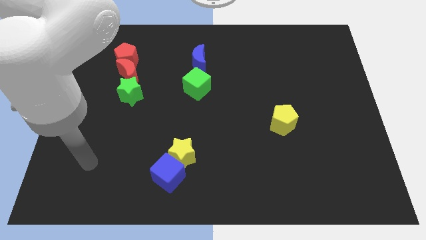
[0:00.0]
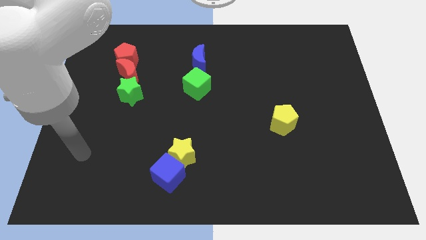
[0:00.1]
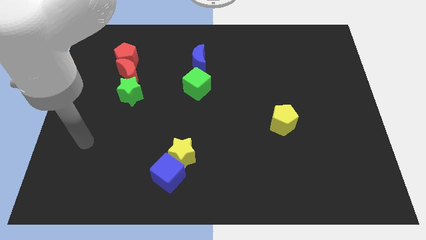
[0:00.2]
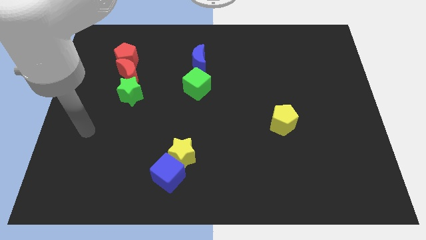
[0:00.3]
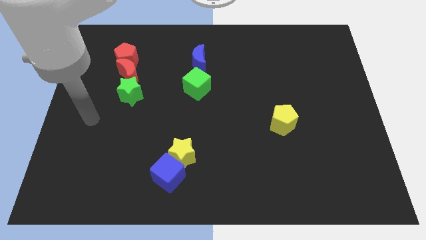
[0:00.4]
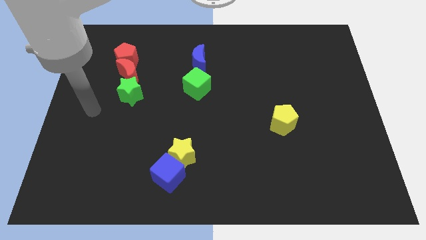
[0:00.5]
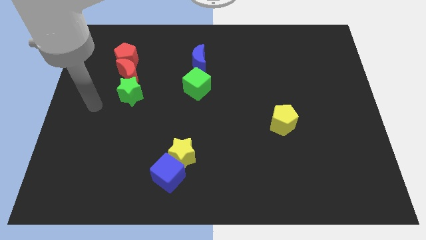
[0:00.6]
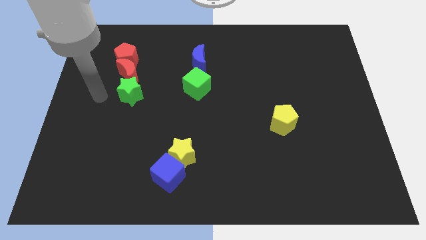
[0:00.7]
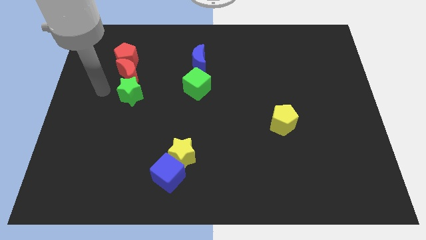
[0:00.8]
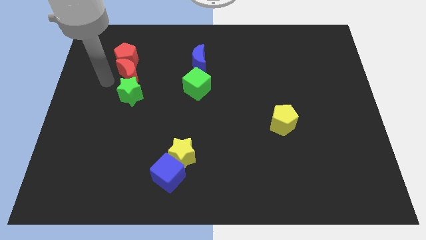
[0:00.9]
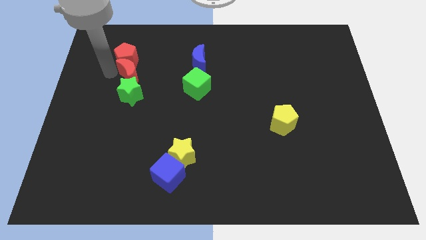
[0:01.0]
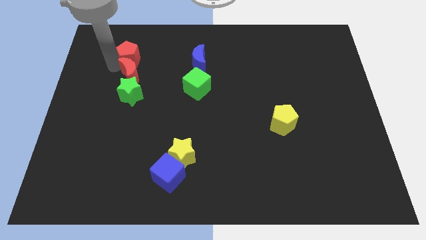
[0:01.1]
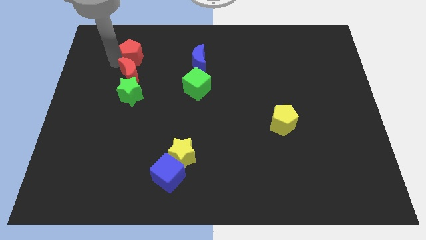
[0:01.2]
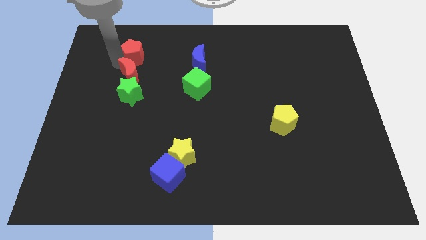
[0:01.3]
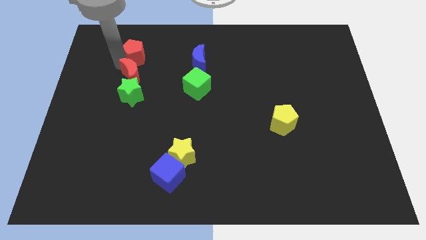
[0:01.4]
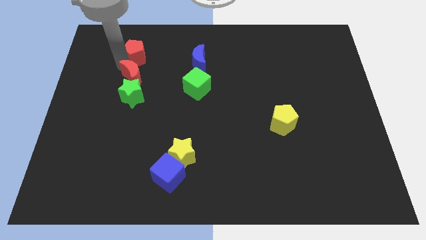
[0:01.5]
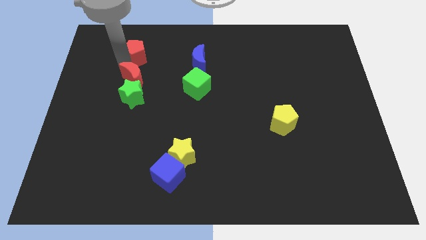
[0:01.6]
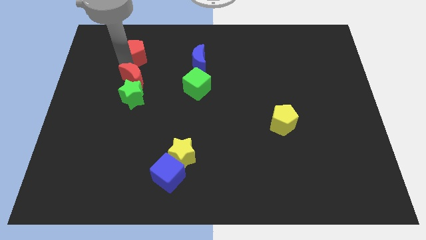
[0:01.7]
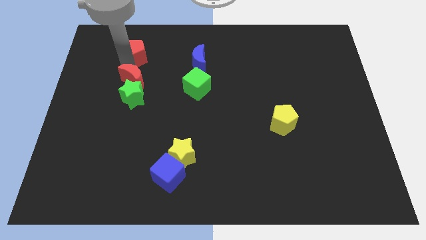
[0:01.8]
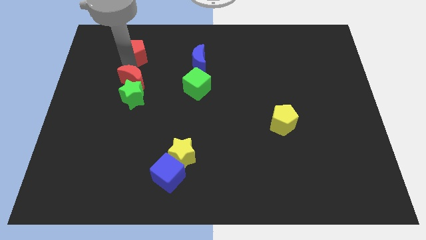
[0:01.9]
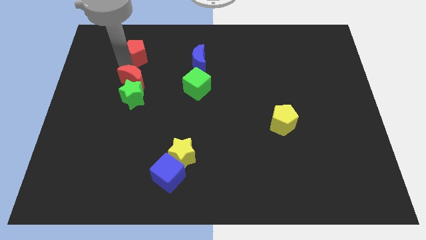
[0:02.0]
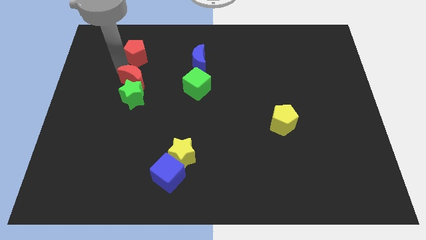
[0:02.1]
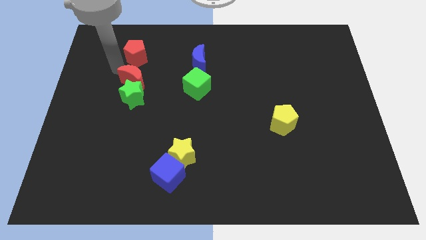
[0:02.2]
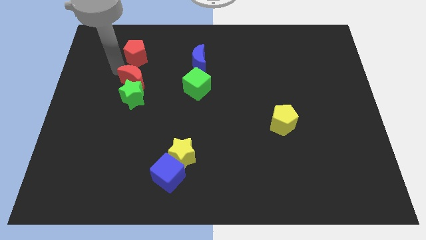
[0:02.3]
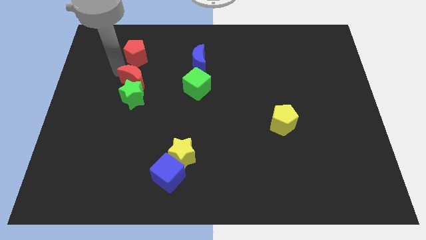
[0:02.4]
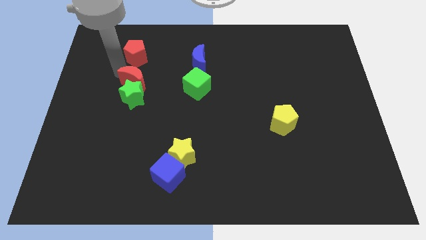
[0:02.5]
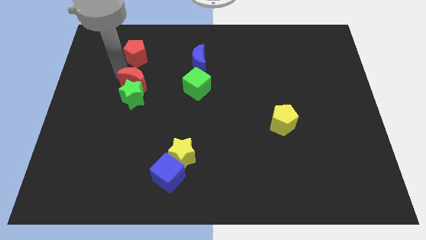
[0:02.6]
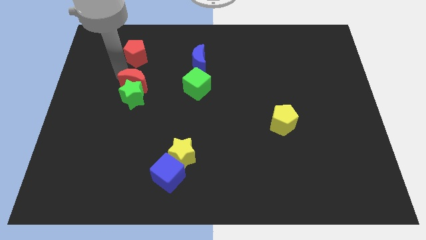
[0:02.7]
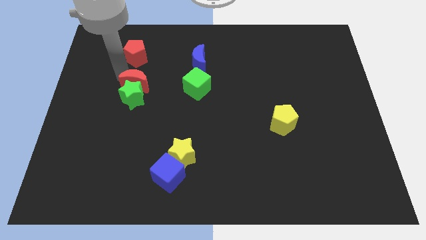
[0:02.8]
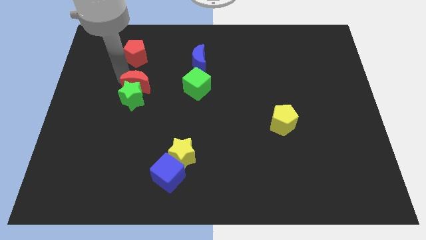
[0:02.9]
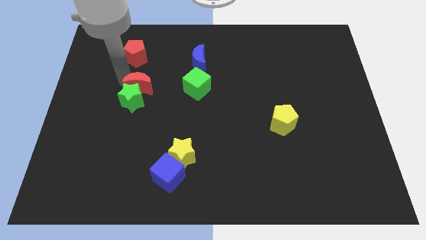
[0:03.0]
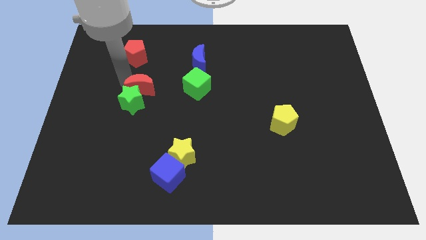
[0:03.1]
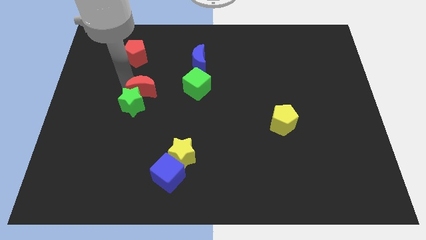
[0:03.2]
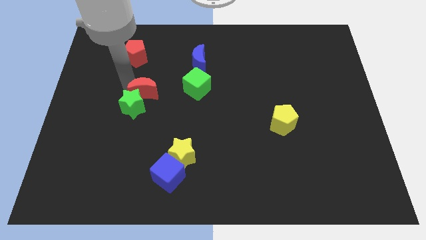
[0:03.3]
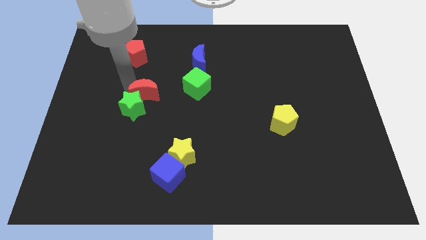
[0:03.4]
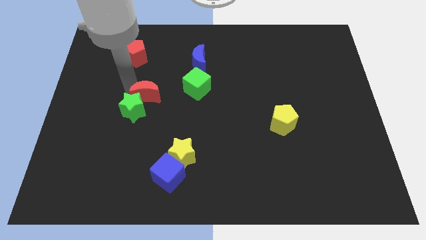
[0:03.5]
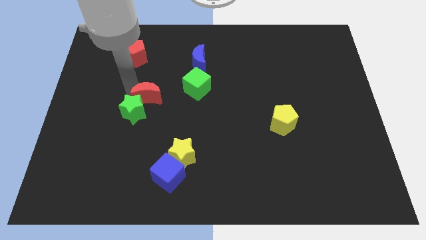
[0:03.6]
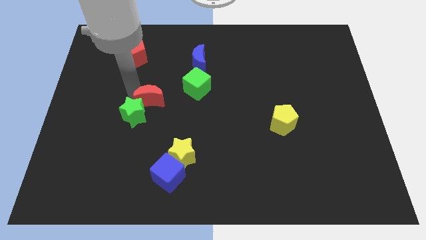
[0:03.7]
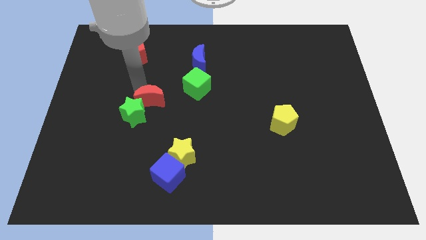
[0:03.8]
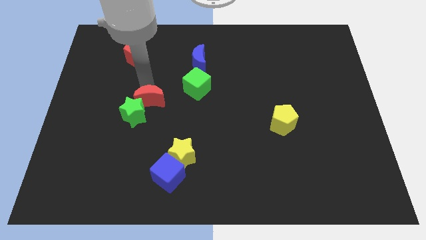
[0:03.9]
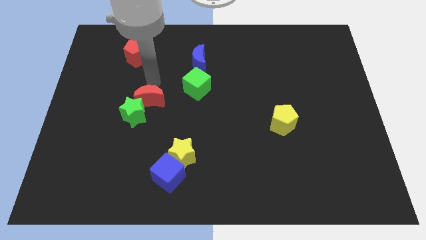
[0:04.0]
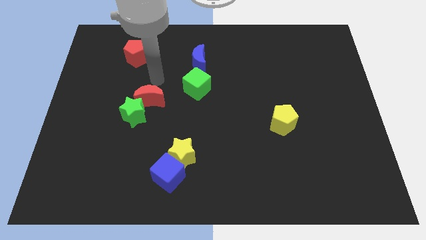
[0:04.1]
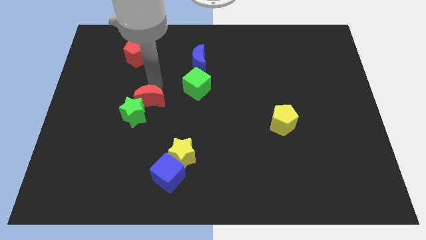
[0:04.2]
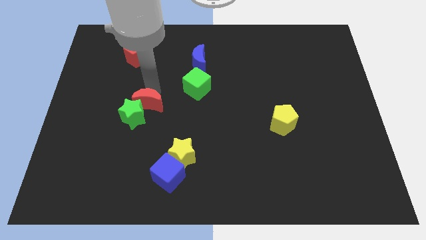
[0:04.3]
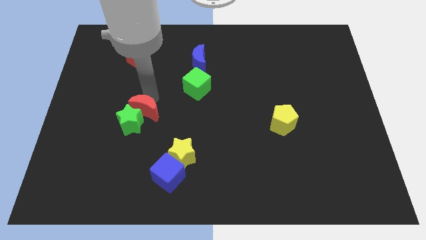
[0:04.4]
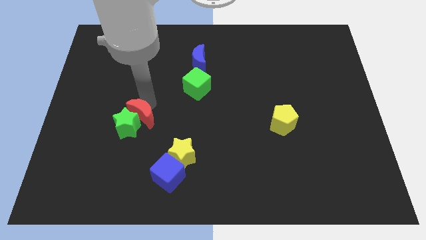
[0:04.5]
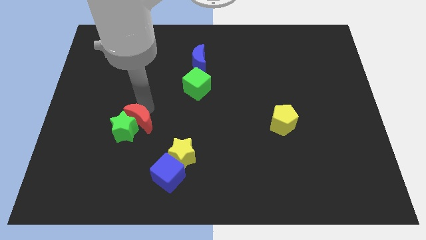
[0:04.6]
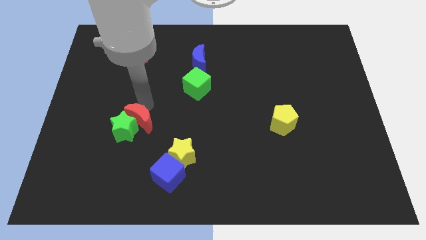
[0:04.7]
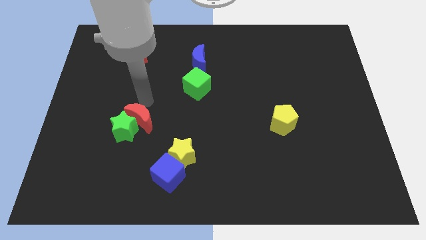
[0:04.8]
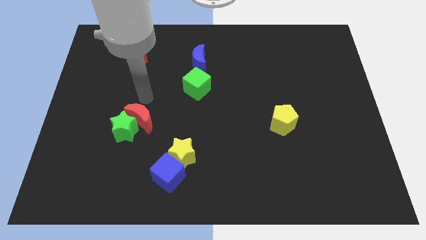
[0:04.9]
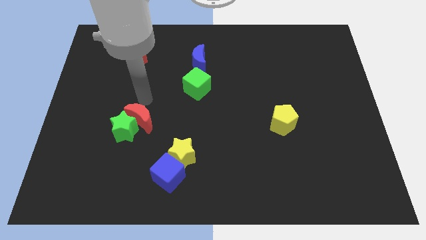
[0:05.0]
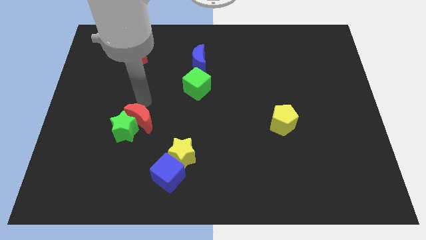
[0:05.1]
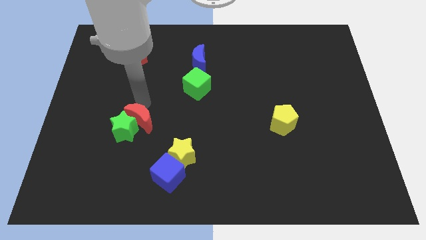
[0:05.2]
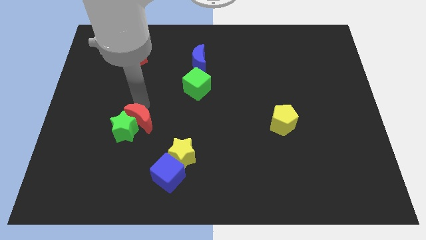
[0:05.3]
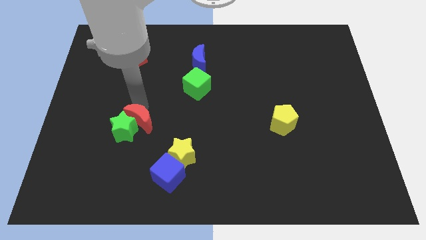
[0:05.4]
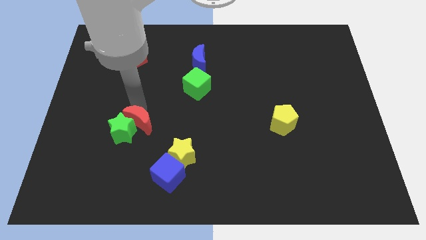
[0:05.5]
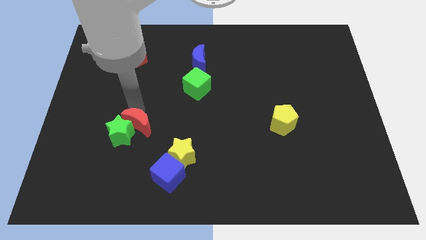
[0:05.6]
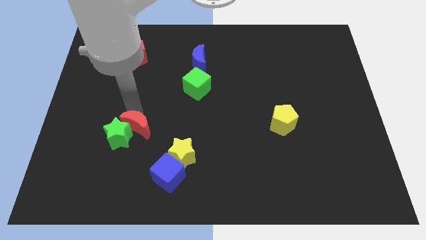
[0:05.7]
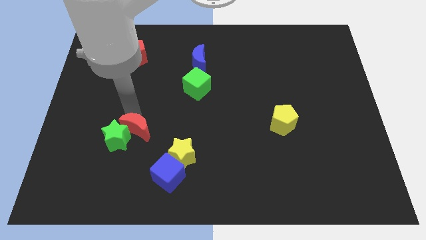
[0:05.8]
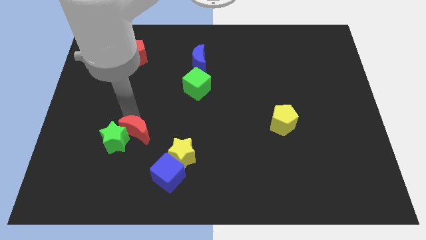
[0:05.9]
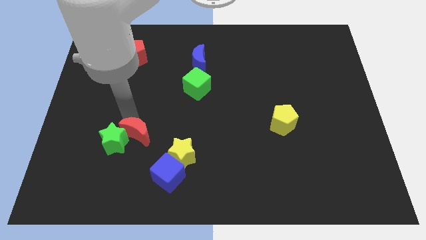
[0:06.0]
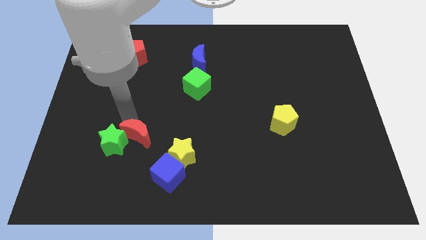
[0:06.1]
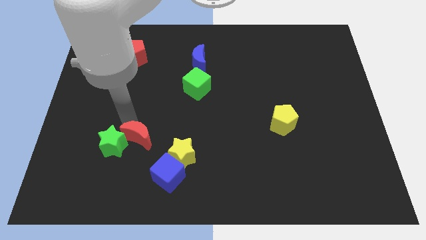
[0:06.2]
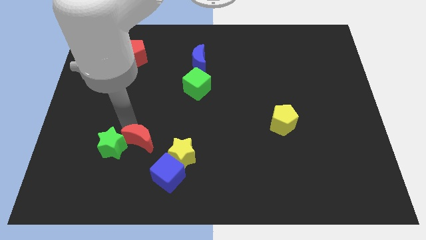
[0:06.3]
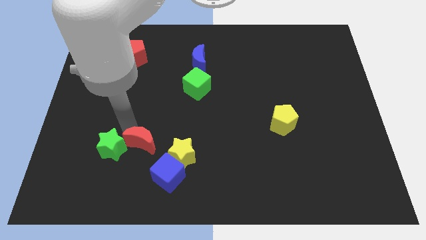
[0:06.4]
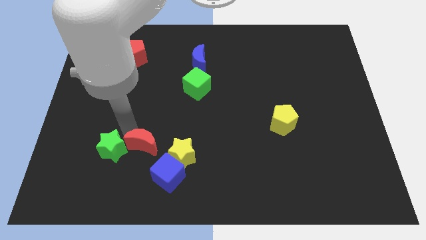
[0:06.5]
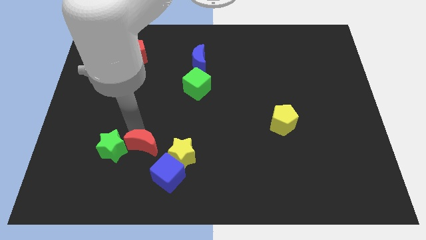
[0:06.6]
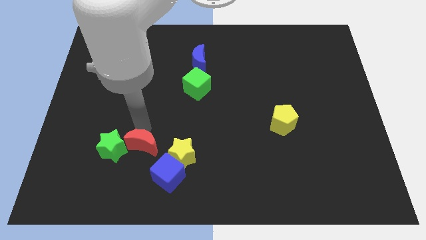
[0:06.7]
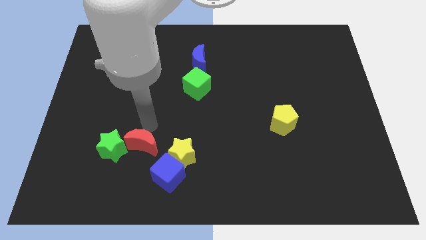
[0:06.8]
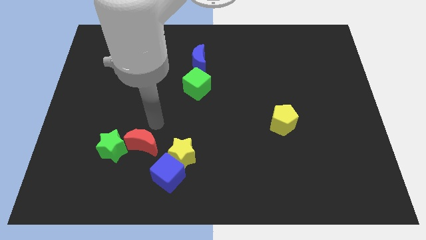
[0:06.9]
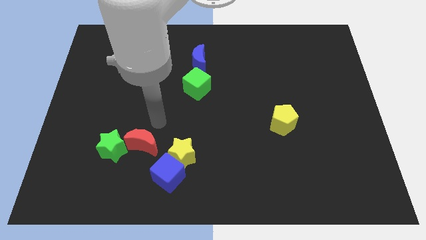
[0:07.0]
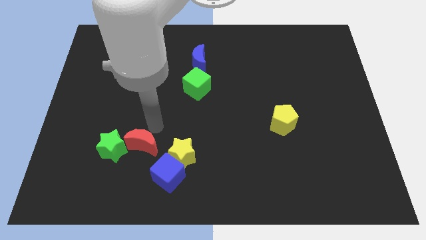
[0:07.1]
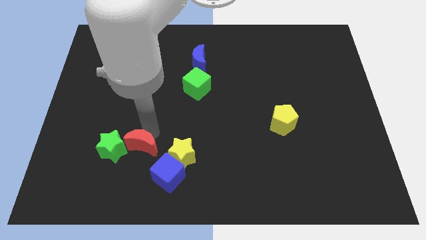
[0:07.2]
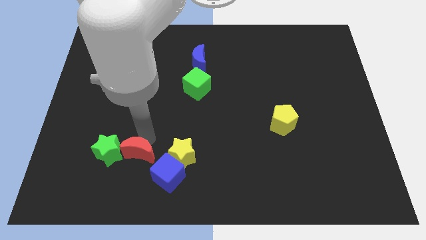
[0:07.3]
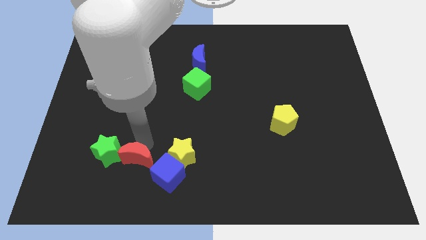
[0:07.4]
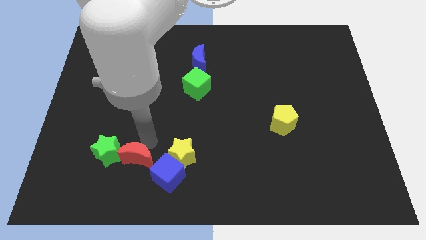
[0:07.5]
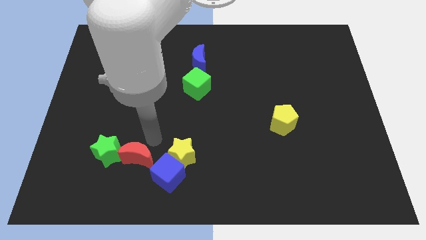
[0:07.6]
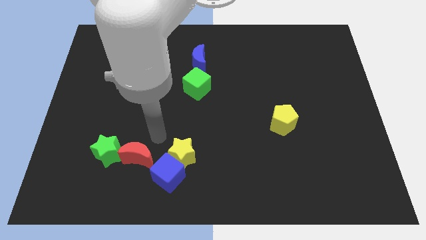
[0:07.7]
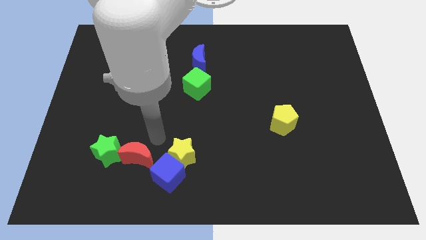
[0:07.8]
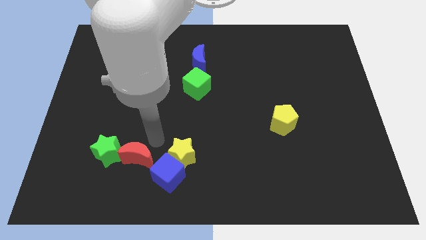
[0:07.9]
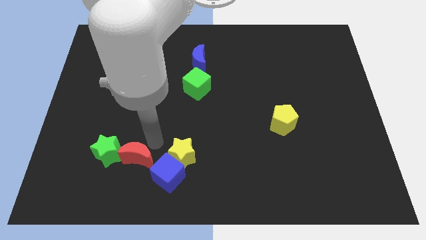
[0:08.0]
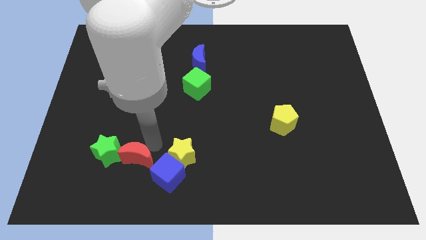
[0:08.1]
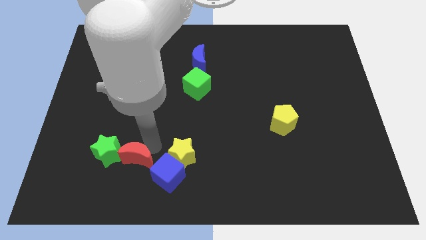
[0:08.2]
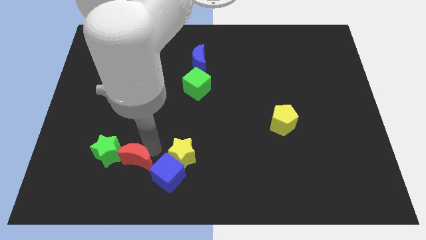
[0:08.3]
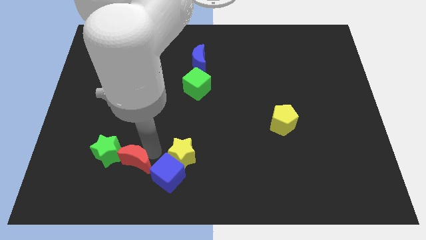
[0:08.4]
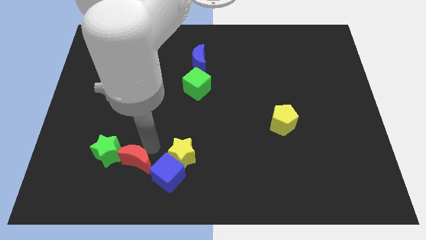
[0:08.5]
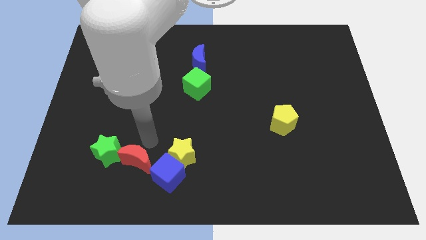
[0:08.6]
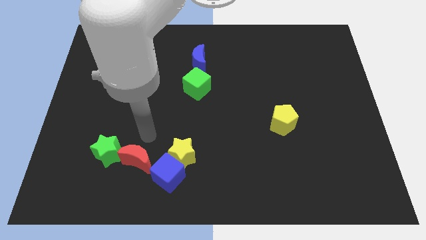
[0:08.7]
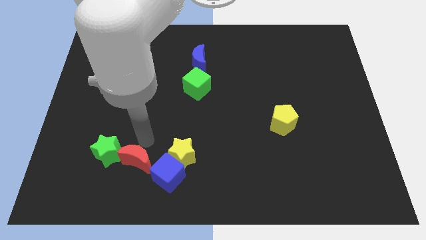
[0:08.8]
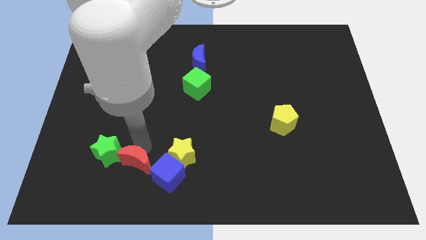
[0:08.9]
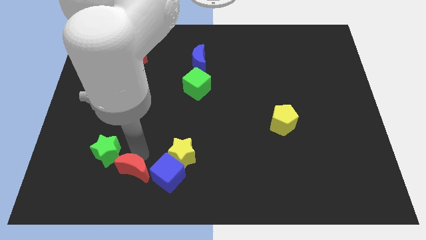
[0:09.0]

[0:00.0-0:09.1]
move the red moon to the bottom left of the yellow star
